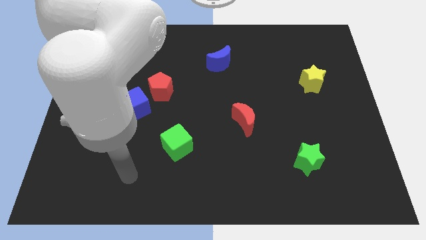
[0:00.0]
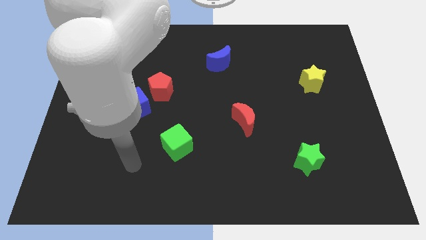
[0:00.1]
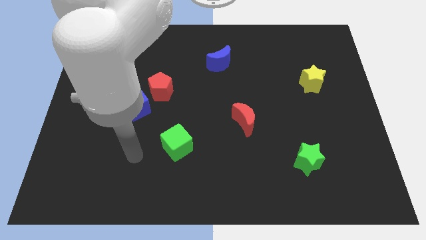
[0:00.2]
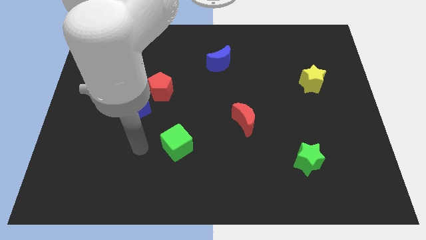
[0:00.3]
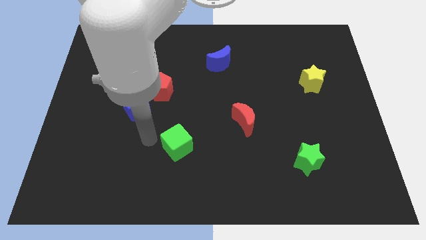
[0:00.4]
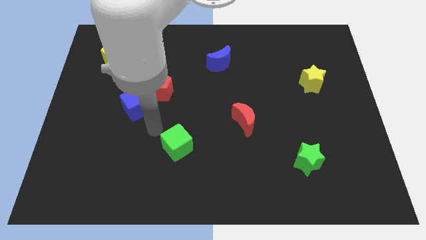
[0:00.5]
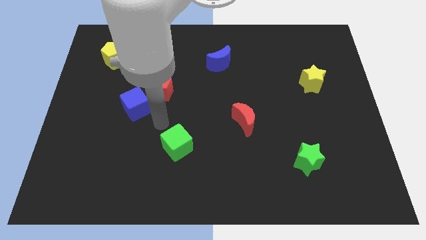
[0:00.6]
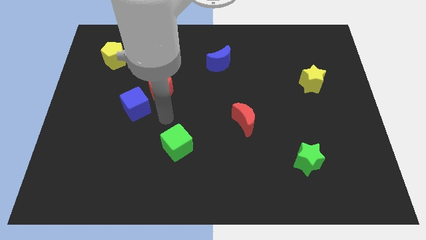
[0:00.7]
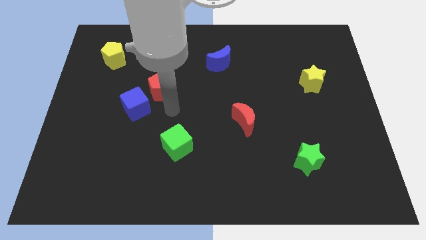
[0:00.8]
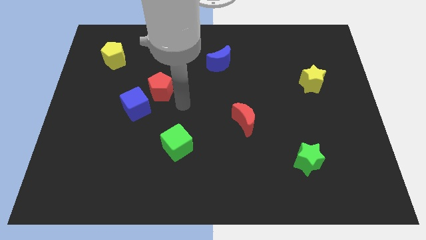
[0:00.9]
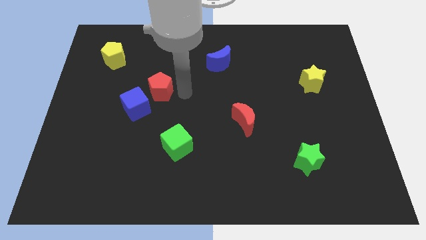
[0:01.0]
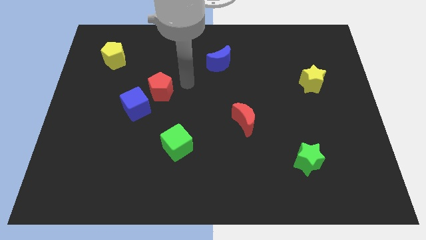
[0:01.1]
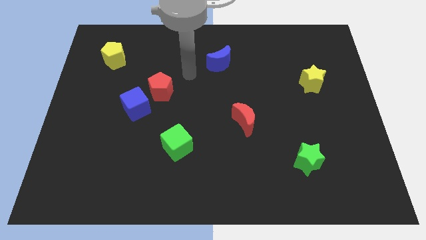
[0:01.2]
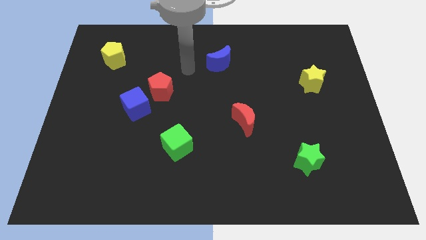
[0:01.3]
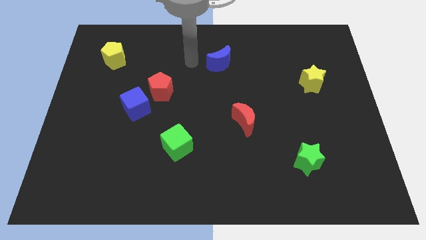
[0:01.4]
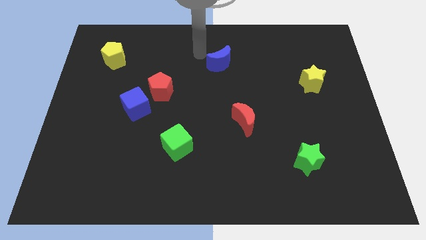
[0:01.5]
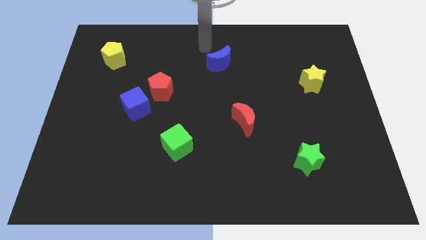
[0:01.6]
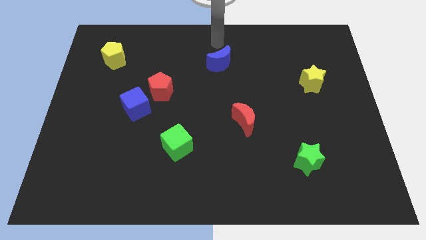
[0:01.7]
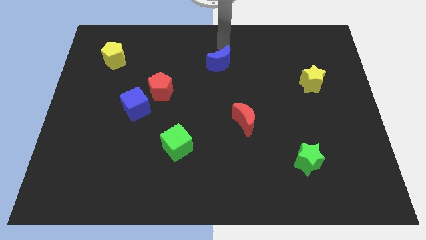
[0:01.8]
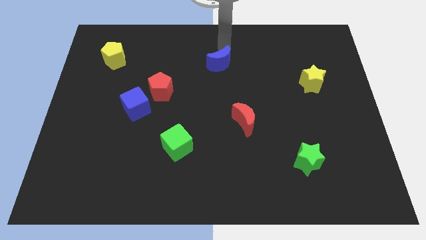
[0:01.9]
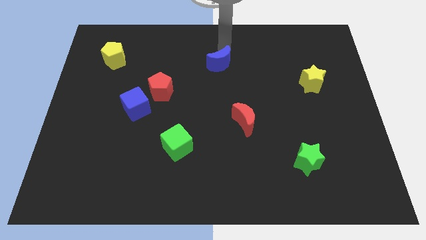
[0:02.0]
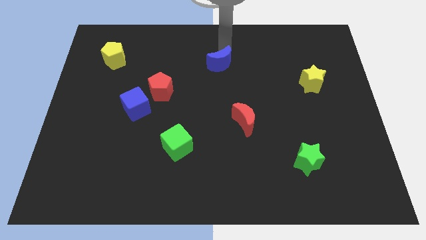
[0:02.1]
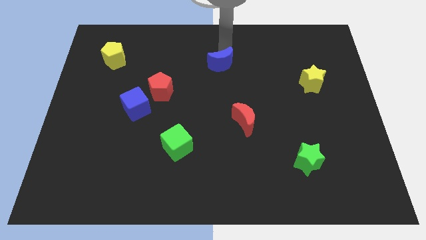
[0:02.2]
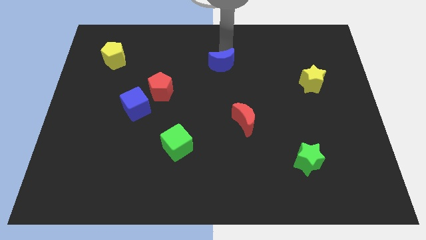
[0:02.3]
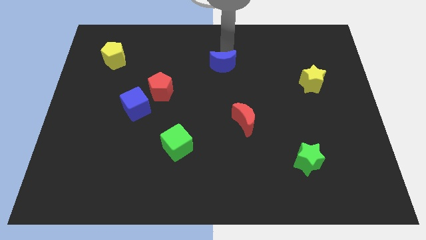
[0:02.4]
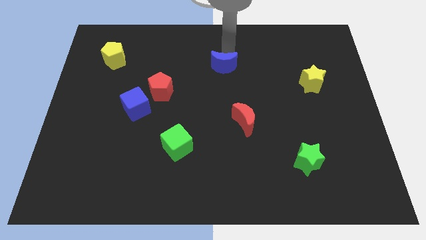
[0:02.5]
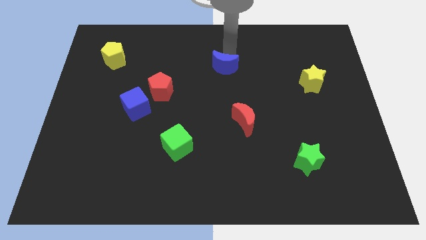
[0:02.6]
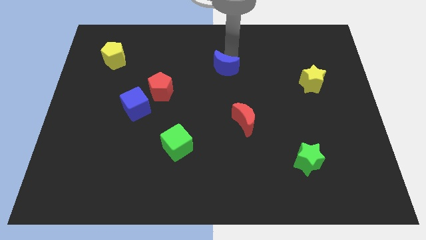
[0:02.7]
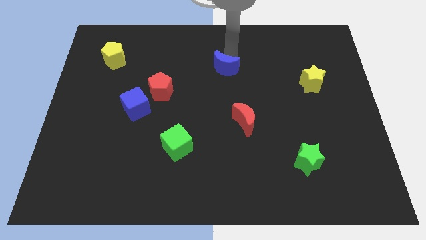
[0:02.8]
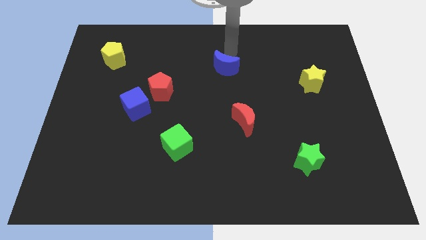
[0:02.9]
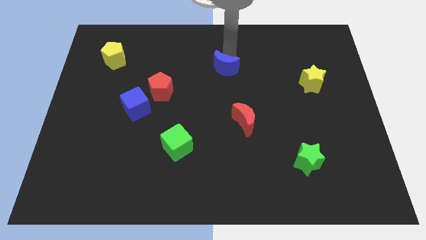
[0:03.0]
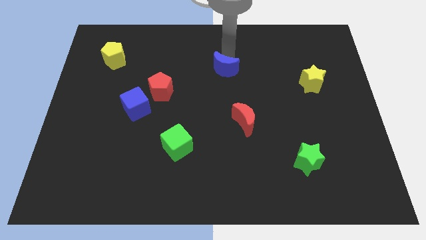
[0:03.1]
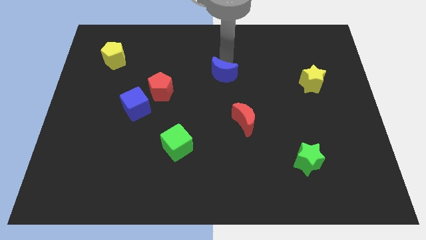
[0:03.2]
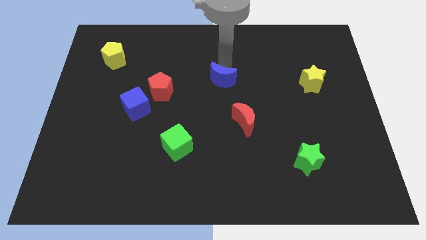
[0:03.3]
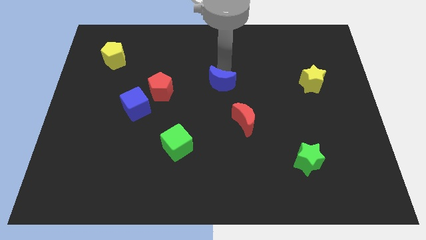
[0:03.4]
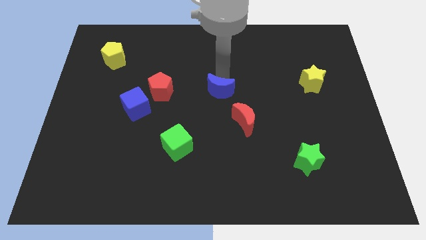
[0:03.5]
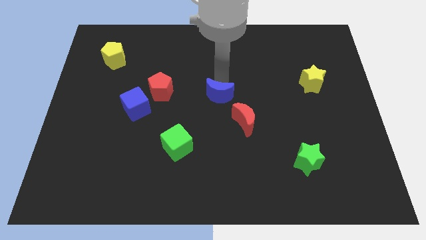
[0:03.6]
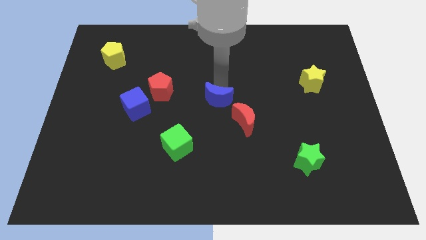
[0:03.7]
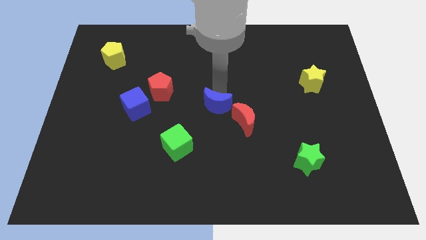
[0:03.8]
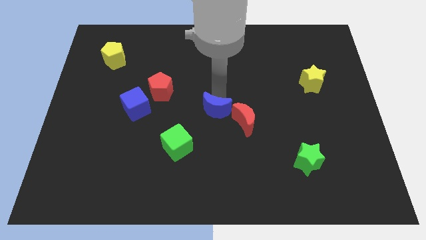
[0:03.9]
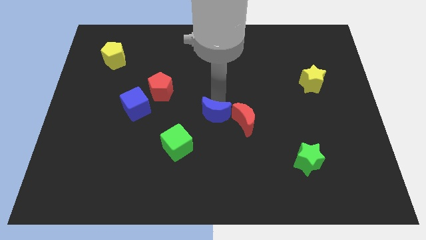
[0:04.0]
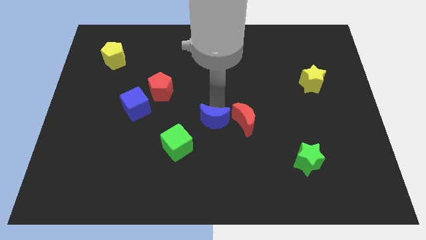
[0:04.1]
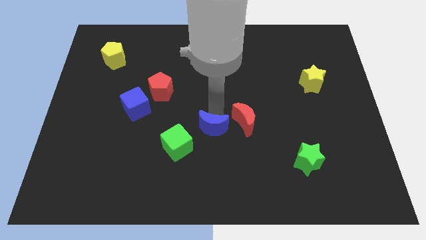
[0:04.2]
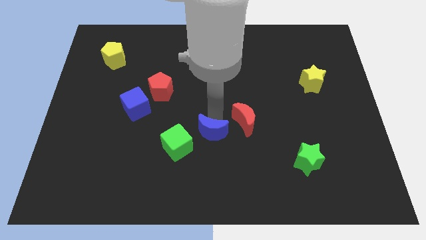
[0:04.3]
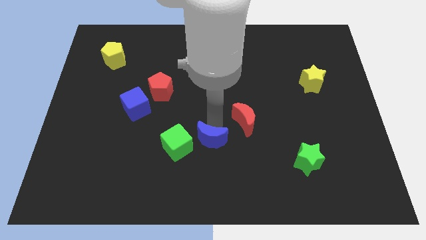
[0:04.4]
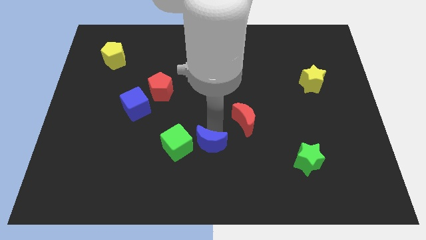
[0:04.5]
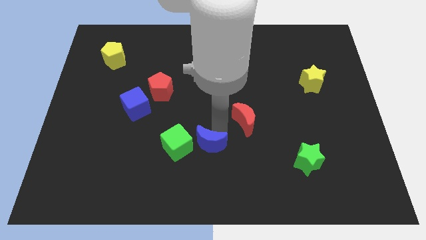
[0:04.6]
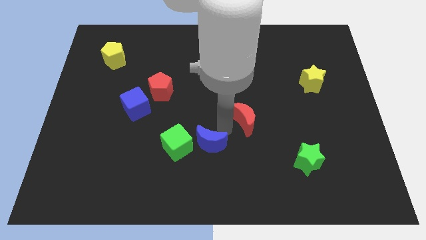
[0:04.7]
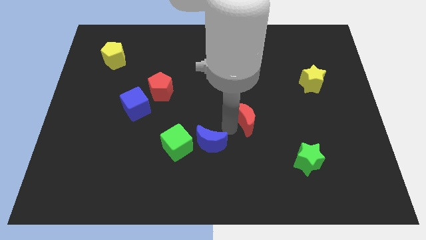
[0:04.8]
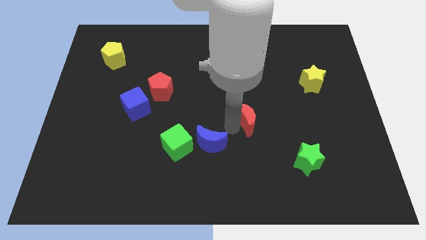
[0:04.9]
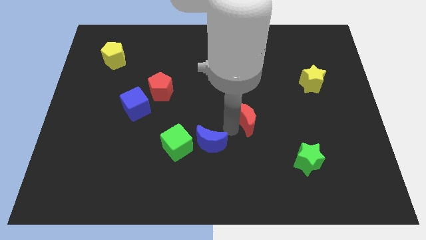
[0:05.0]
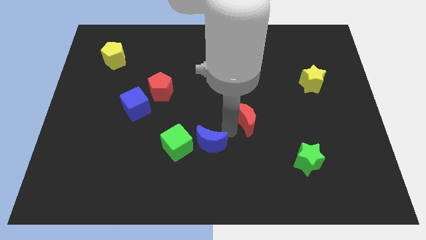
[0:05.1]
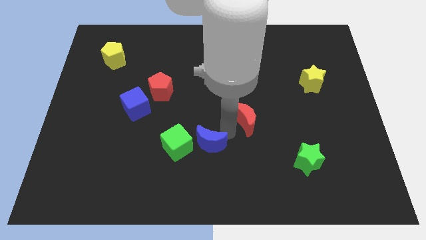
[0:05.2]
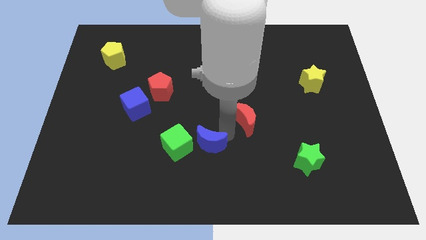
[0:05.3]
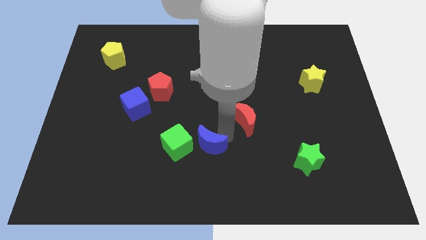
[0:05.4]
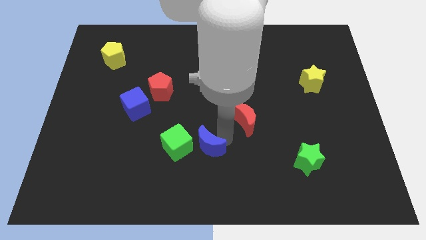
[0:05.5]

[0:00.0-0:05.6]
put the blue moon to the bottom right side of the green cube

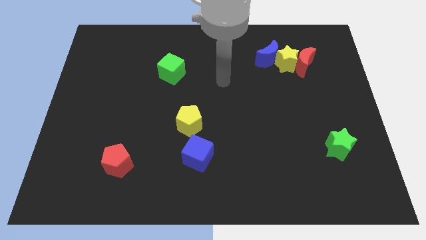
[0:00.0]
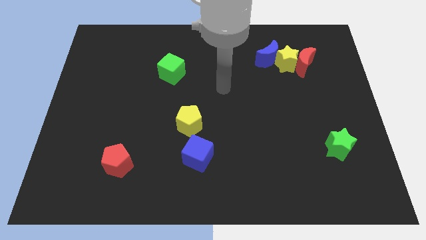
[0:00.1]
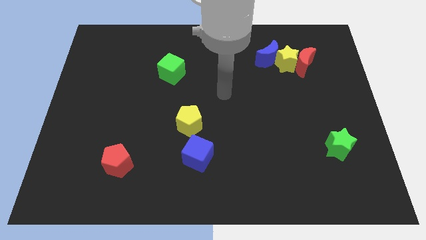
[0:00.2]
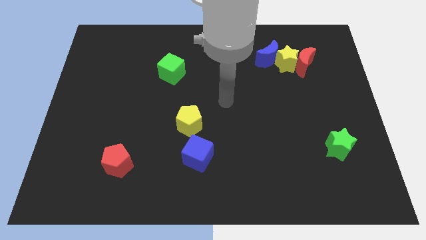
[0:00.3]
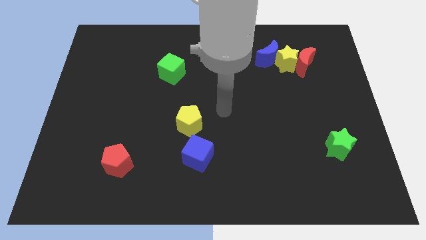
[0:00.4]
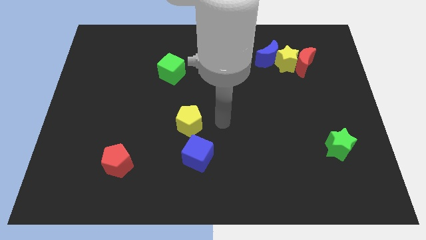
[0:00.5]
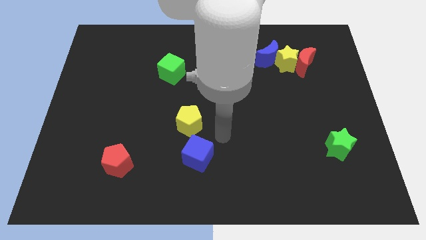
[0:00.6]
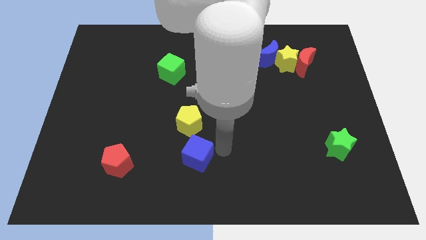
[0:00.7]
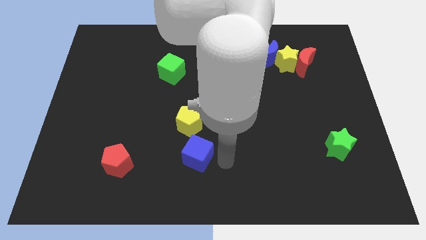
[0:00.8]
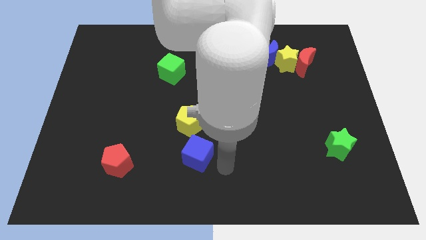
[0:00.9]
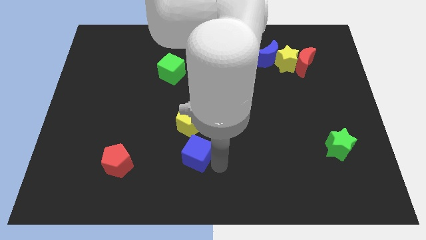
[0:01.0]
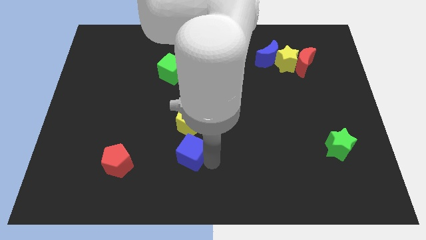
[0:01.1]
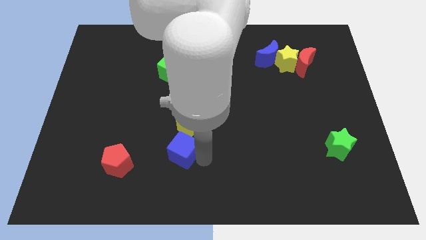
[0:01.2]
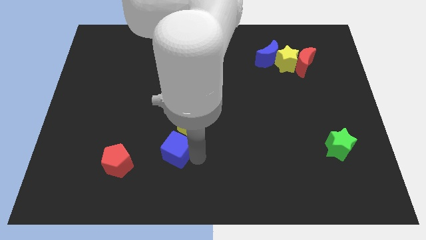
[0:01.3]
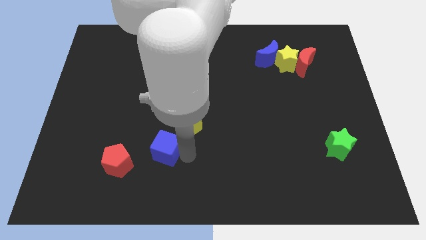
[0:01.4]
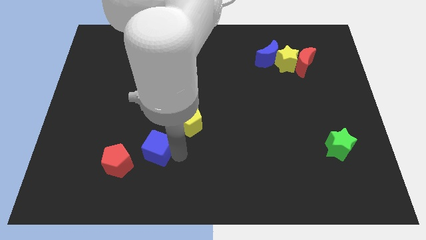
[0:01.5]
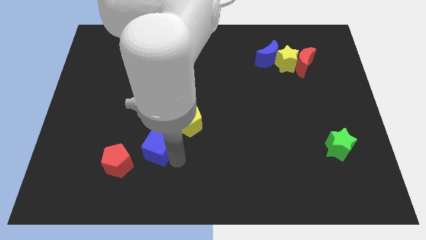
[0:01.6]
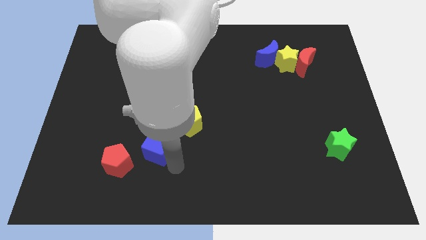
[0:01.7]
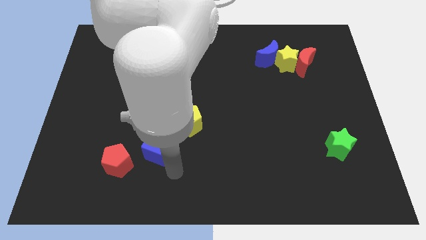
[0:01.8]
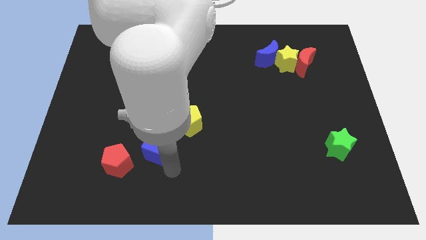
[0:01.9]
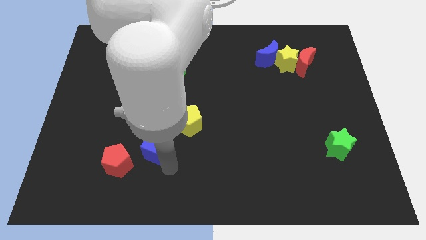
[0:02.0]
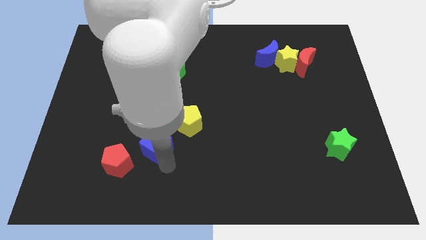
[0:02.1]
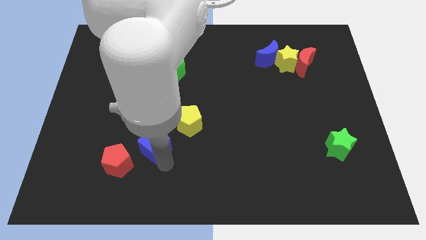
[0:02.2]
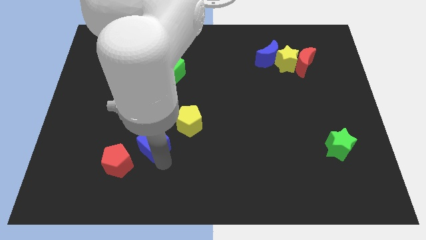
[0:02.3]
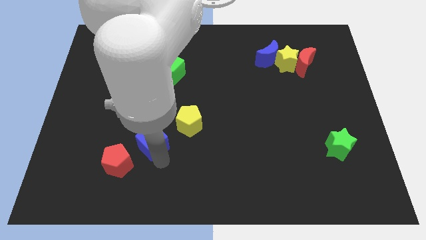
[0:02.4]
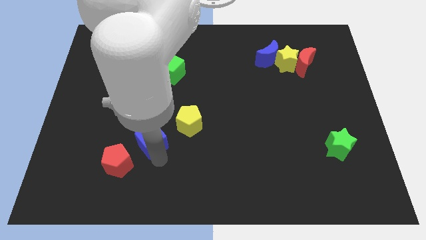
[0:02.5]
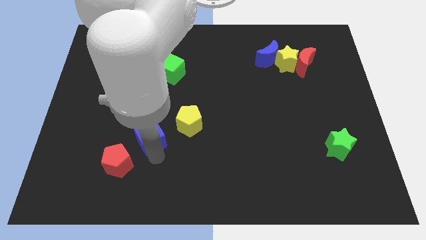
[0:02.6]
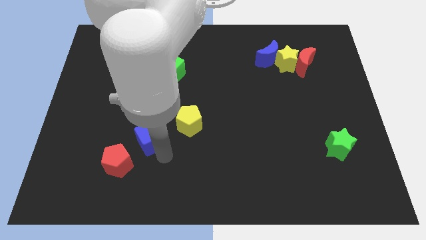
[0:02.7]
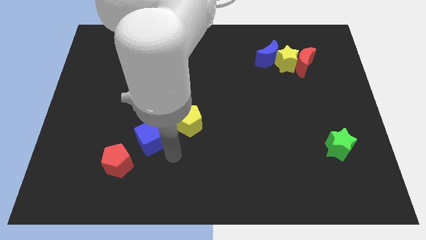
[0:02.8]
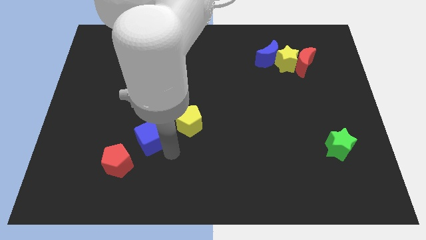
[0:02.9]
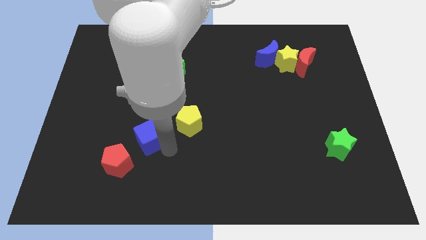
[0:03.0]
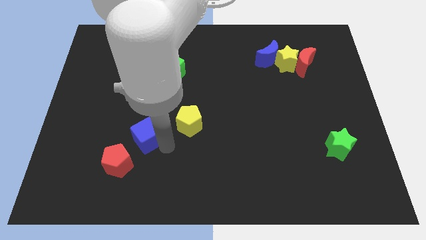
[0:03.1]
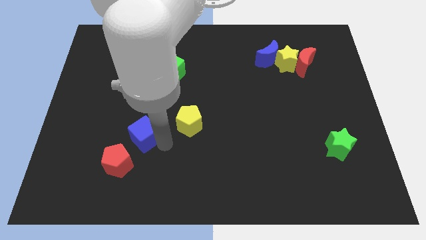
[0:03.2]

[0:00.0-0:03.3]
put the blue cube to the top side of the red pentagon
